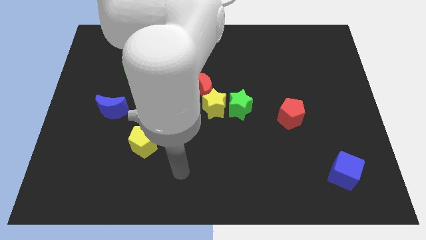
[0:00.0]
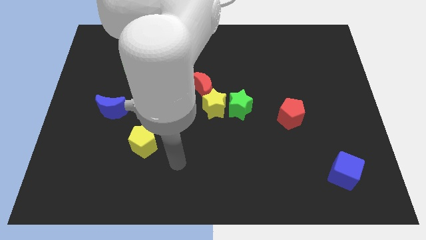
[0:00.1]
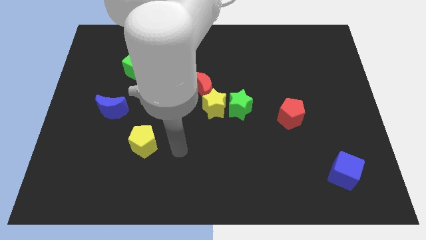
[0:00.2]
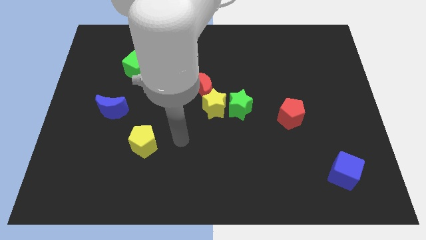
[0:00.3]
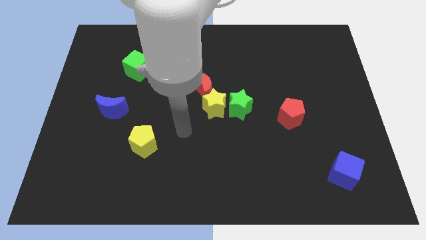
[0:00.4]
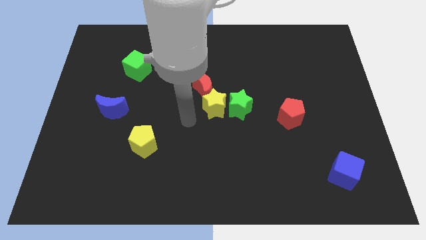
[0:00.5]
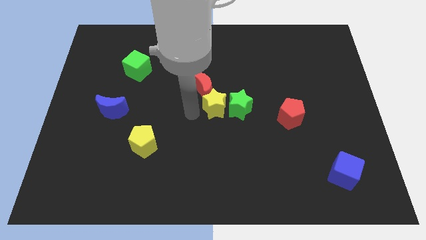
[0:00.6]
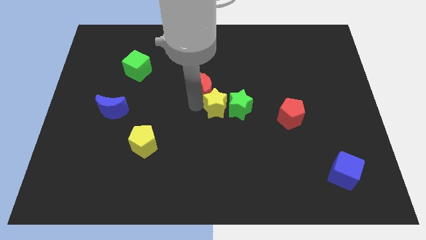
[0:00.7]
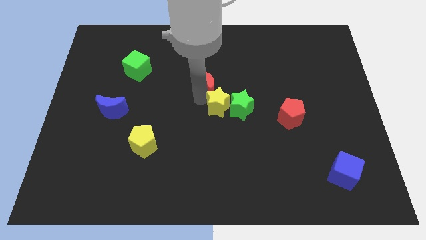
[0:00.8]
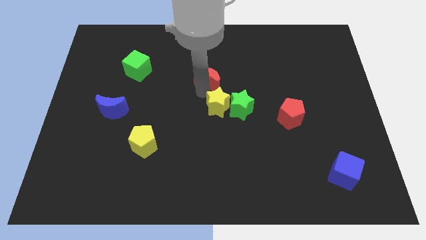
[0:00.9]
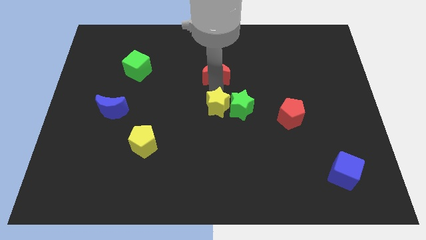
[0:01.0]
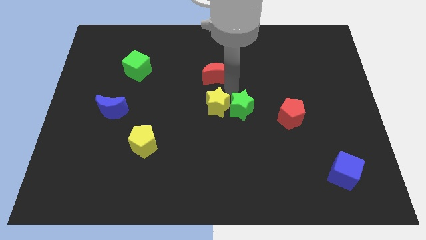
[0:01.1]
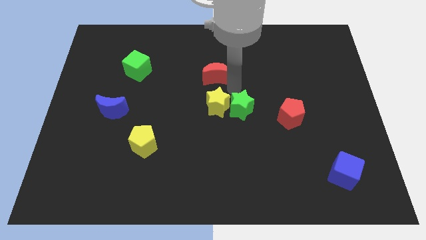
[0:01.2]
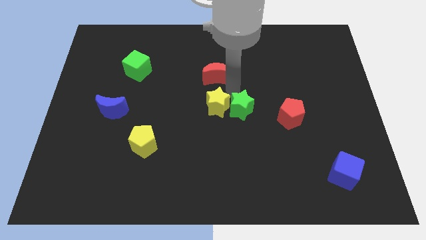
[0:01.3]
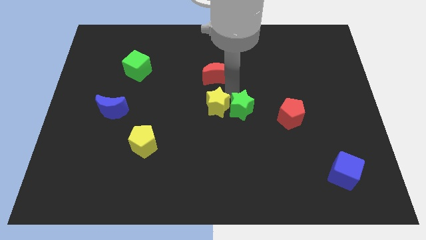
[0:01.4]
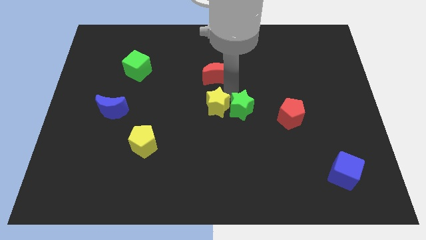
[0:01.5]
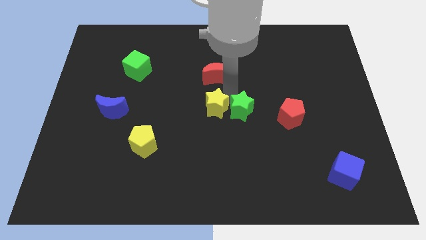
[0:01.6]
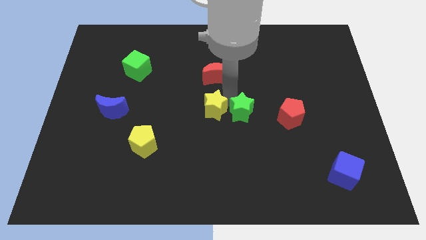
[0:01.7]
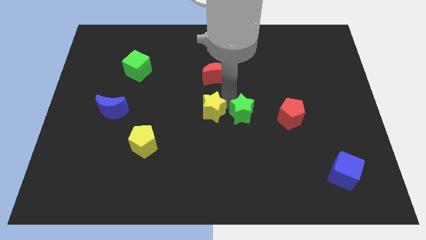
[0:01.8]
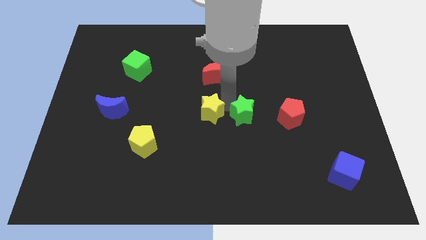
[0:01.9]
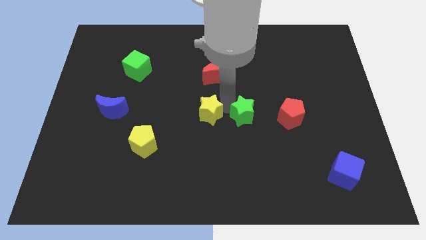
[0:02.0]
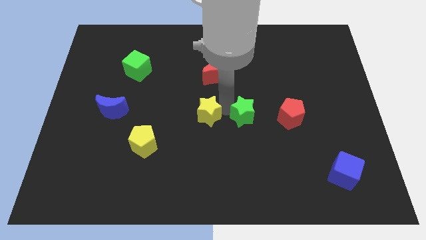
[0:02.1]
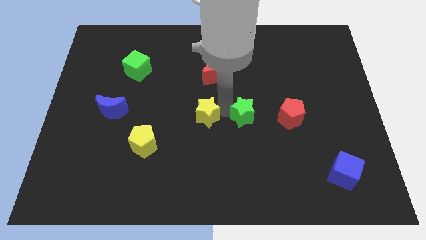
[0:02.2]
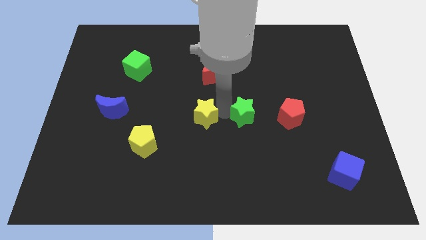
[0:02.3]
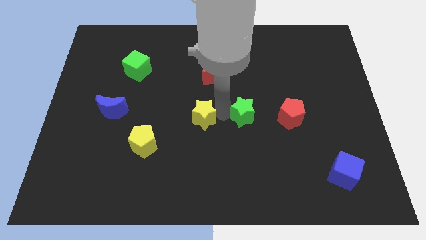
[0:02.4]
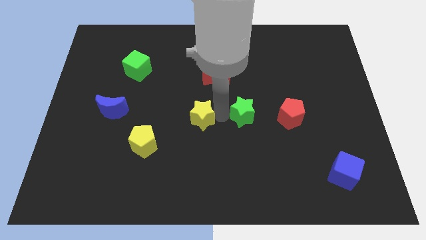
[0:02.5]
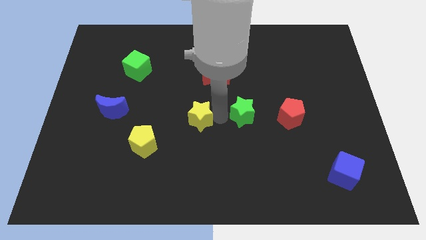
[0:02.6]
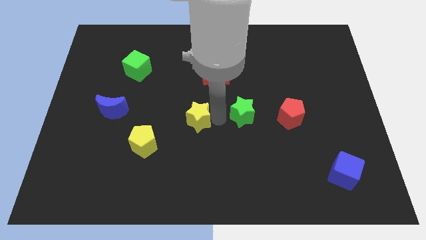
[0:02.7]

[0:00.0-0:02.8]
separate the yellow star from the green star and red moon

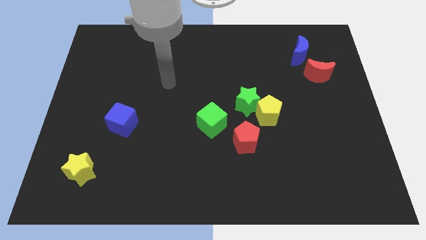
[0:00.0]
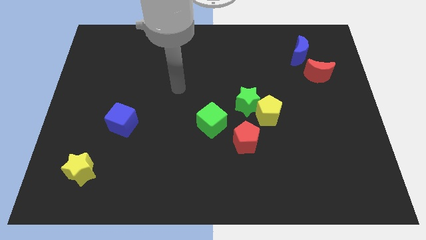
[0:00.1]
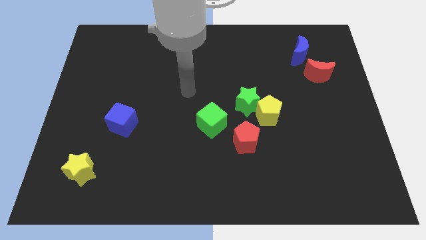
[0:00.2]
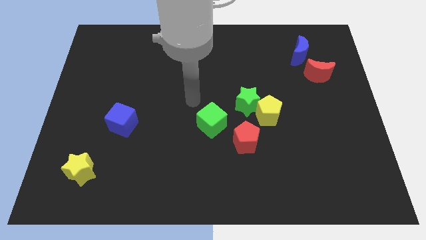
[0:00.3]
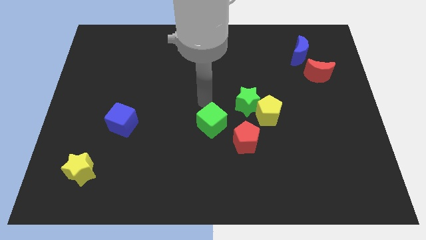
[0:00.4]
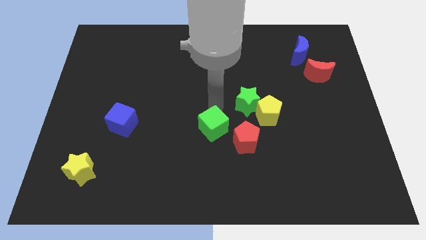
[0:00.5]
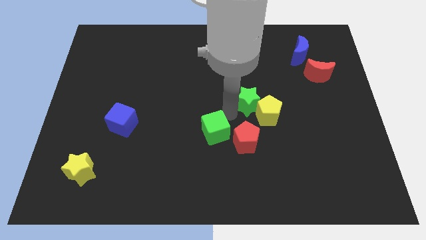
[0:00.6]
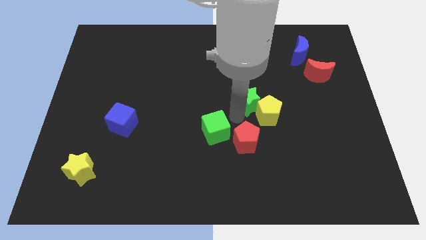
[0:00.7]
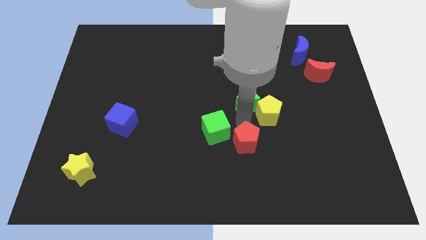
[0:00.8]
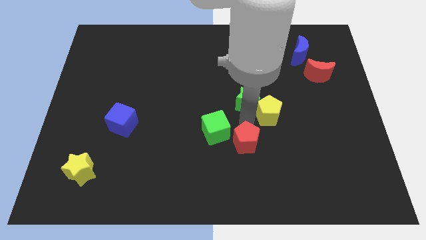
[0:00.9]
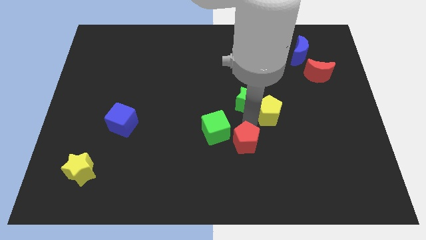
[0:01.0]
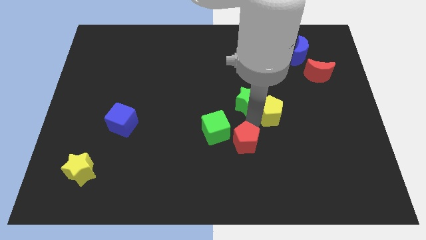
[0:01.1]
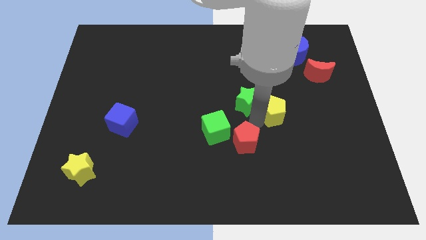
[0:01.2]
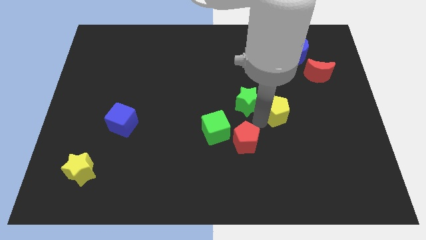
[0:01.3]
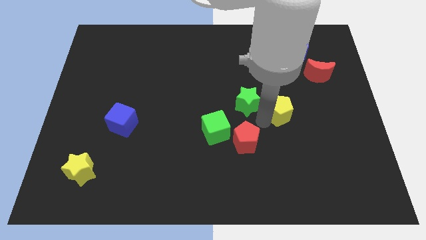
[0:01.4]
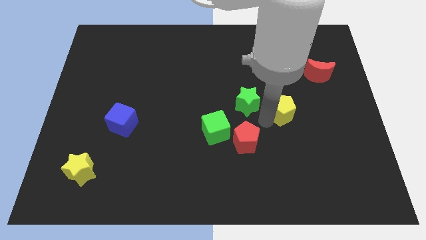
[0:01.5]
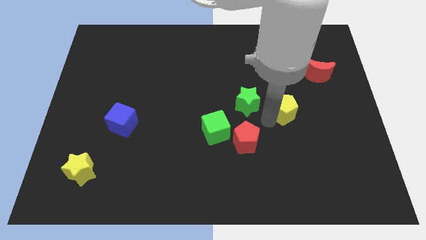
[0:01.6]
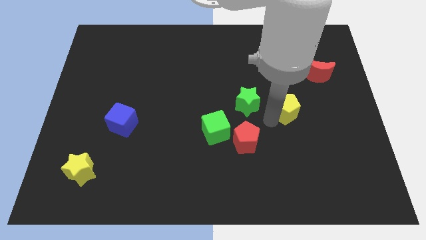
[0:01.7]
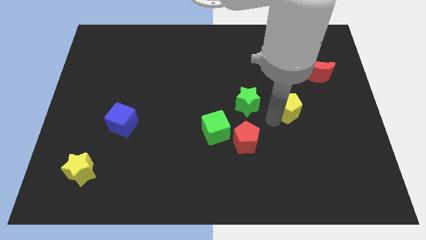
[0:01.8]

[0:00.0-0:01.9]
pull the yellow pentagon apart from the green star and red pentagon

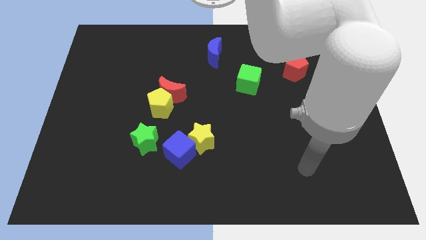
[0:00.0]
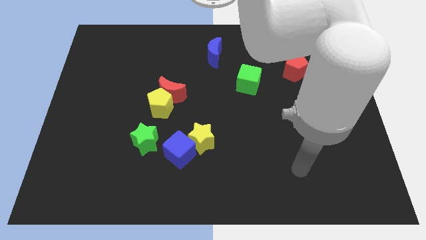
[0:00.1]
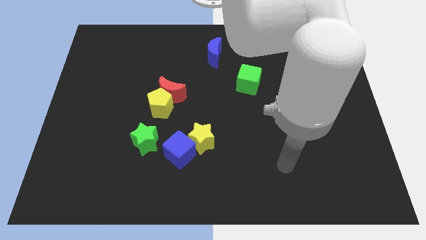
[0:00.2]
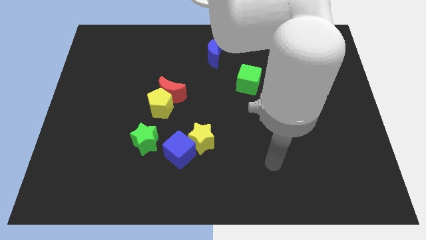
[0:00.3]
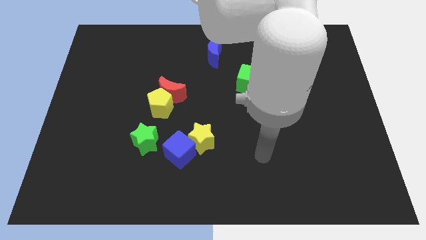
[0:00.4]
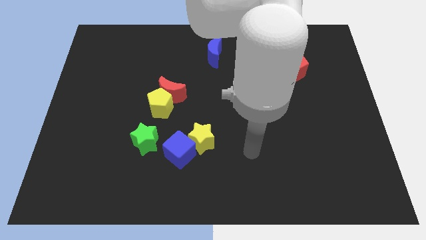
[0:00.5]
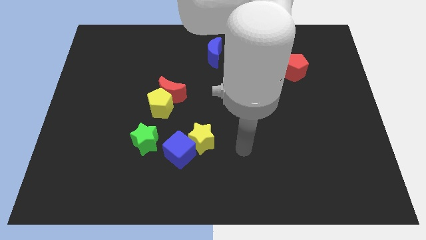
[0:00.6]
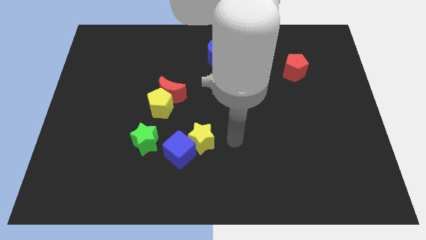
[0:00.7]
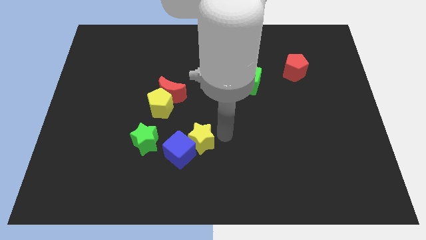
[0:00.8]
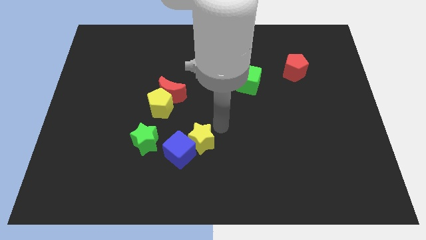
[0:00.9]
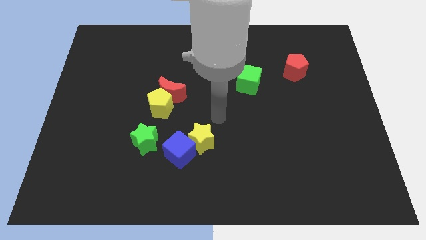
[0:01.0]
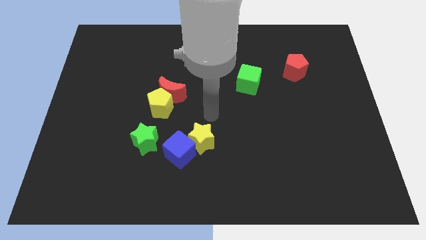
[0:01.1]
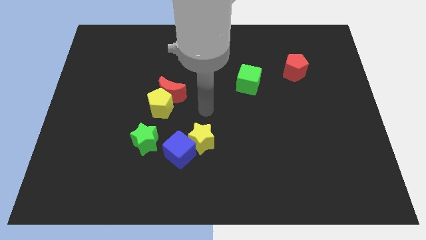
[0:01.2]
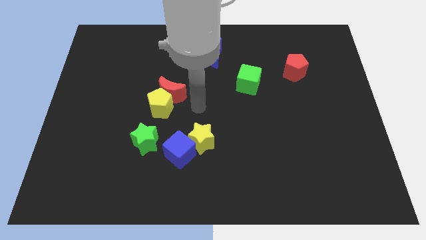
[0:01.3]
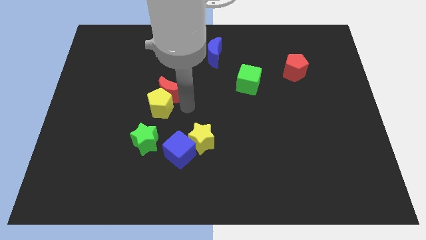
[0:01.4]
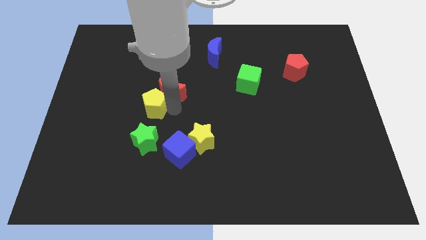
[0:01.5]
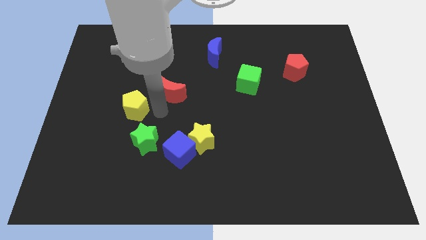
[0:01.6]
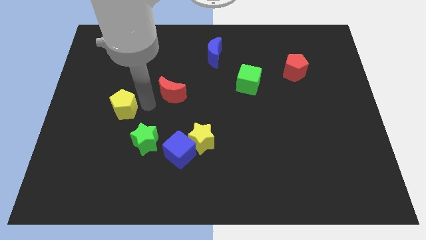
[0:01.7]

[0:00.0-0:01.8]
separate the red moon from the yellow pentagon

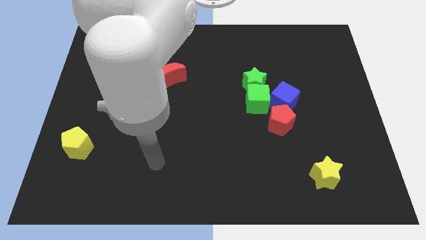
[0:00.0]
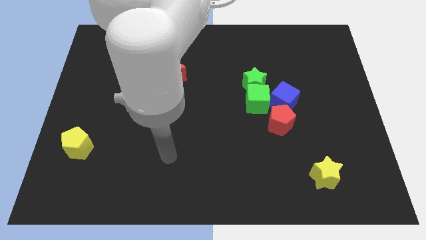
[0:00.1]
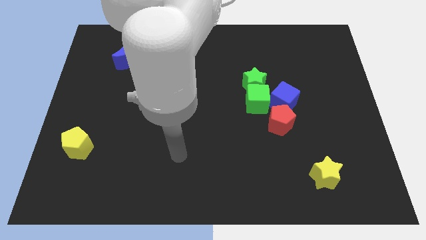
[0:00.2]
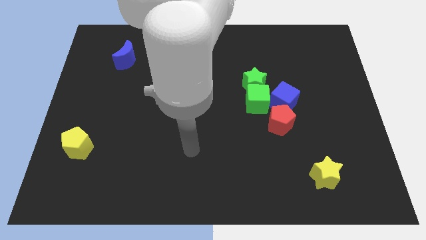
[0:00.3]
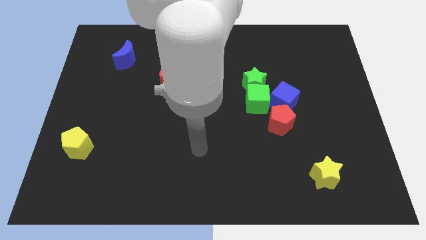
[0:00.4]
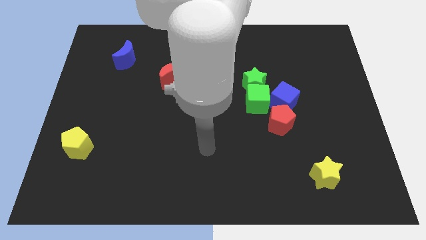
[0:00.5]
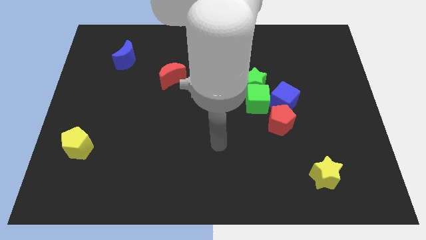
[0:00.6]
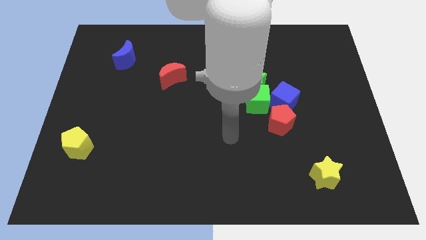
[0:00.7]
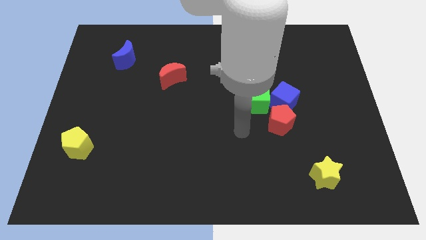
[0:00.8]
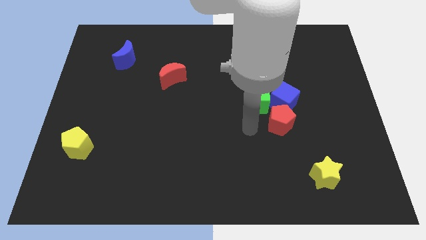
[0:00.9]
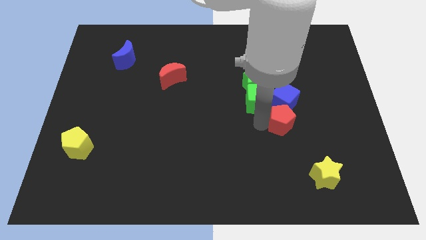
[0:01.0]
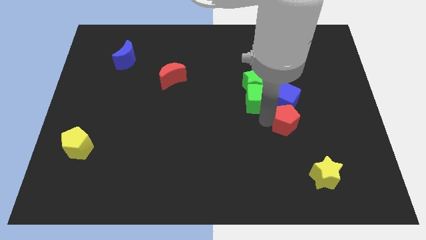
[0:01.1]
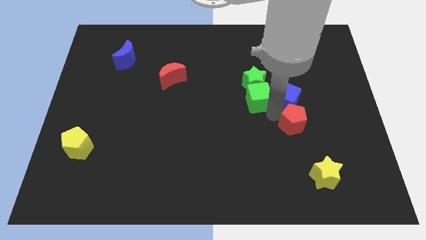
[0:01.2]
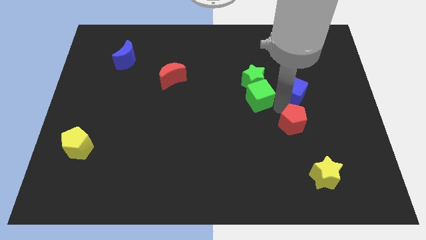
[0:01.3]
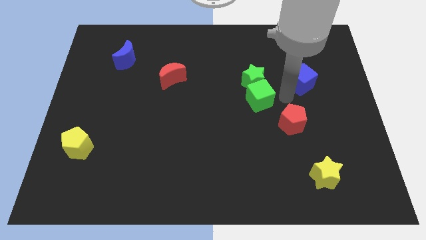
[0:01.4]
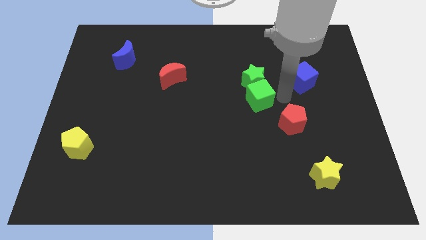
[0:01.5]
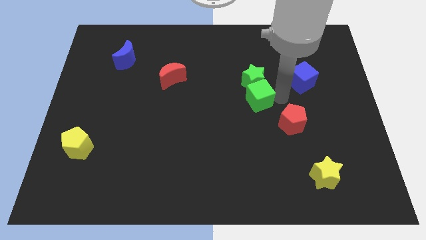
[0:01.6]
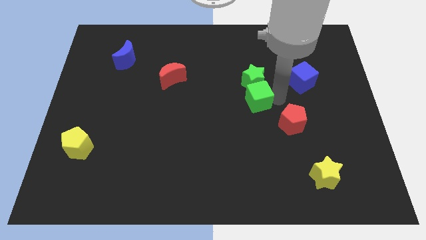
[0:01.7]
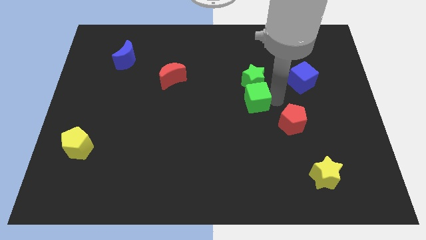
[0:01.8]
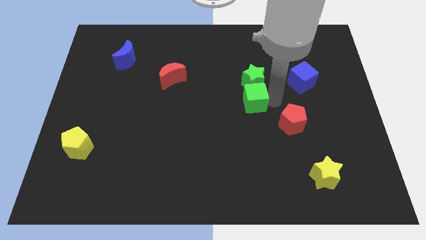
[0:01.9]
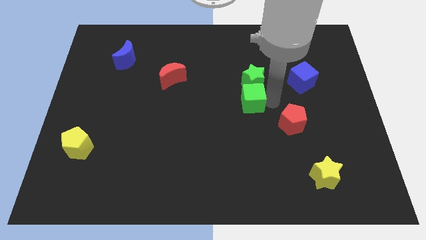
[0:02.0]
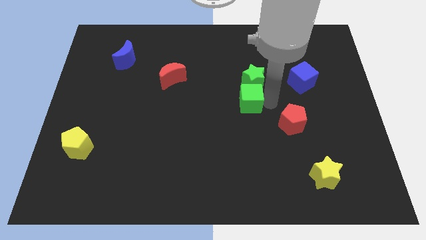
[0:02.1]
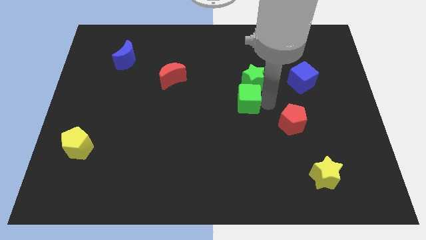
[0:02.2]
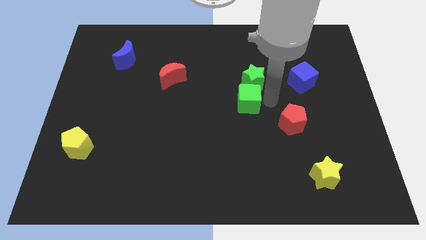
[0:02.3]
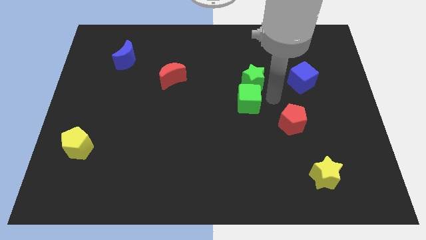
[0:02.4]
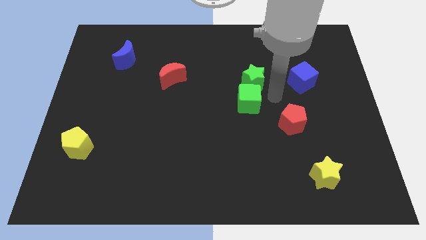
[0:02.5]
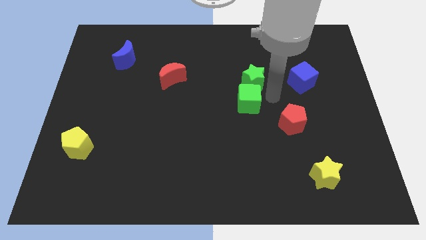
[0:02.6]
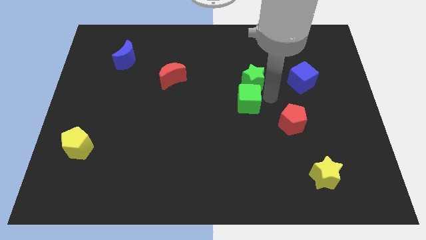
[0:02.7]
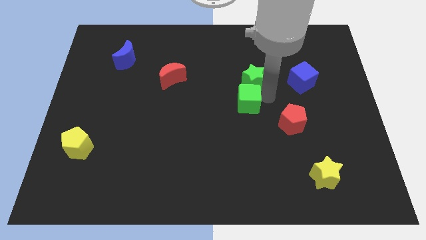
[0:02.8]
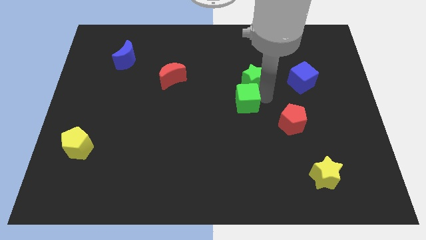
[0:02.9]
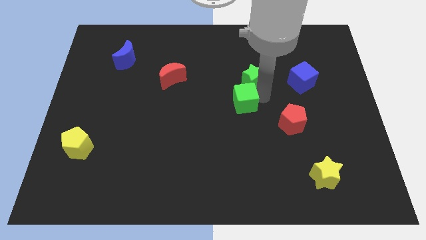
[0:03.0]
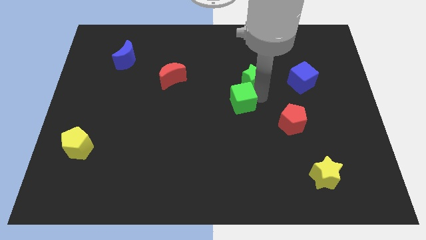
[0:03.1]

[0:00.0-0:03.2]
pull the green cube apart from the green star, blue cube, and red pentagon
